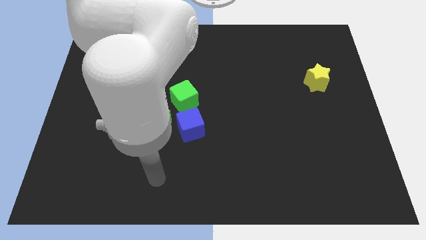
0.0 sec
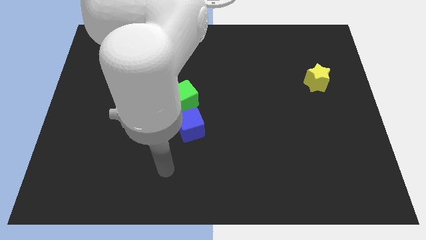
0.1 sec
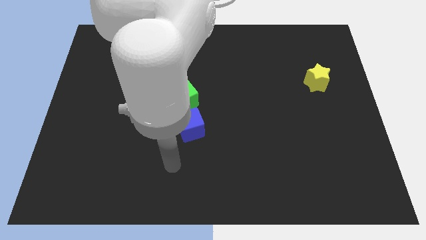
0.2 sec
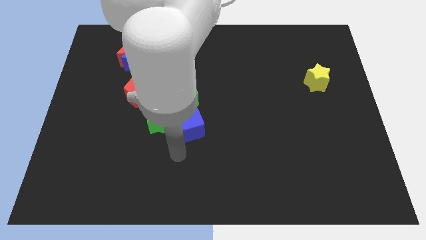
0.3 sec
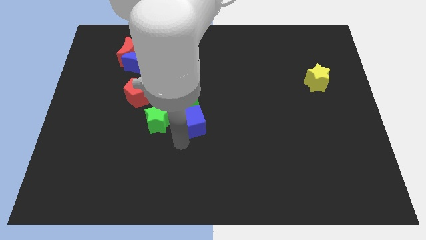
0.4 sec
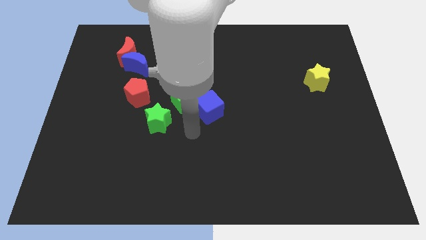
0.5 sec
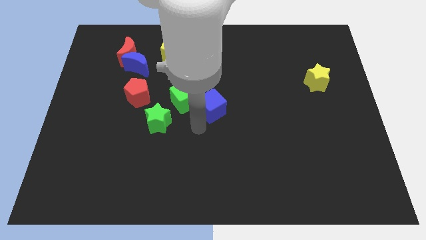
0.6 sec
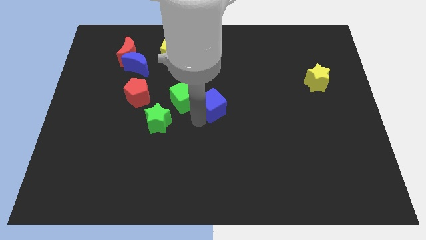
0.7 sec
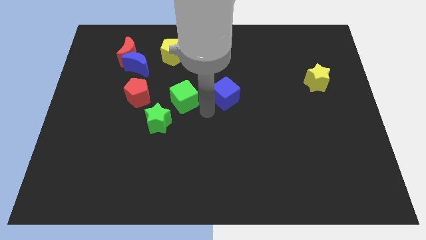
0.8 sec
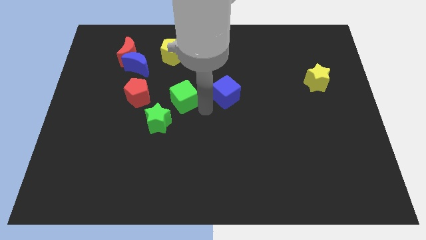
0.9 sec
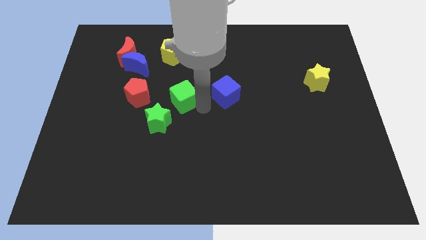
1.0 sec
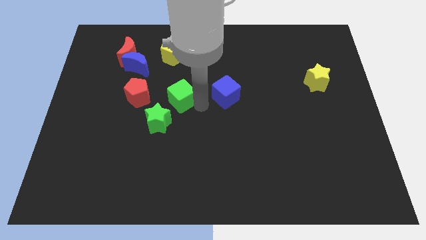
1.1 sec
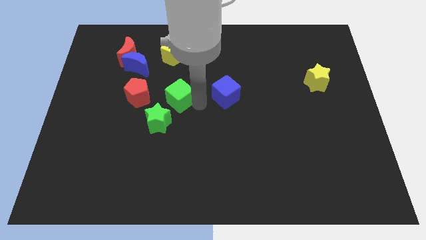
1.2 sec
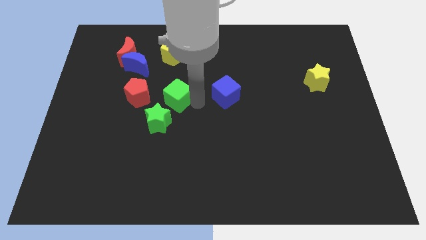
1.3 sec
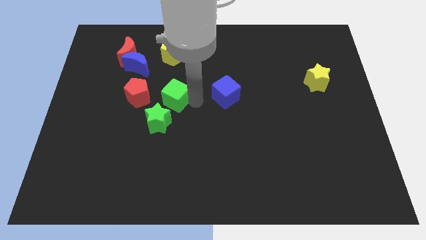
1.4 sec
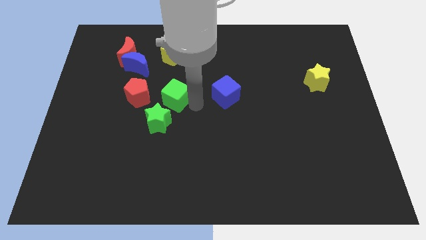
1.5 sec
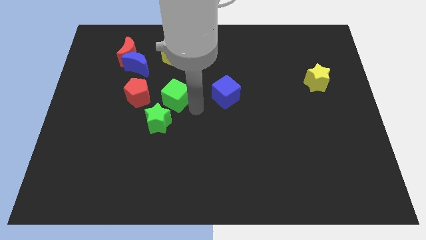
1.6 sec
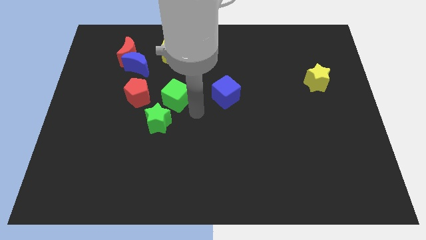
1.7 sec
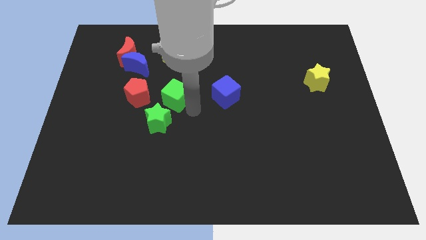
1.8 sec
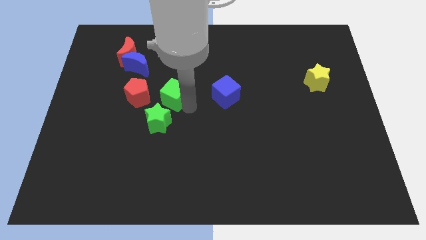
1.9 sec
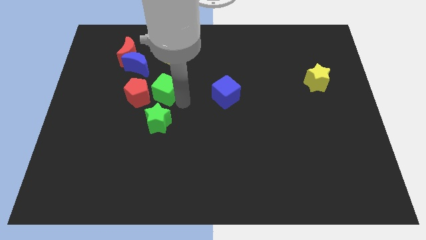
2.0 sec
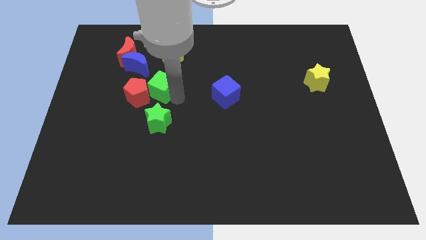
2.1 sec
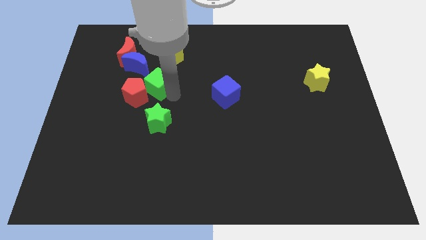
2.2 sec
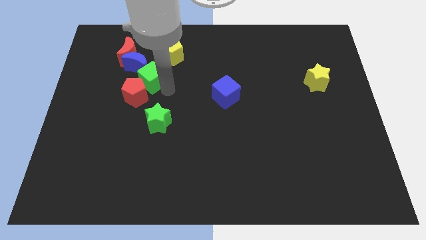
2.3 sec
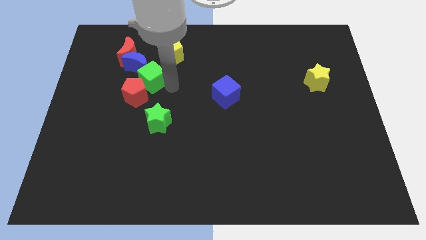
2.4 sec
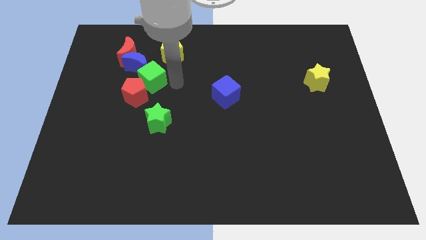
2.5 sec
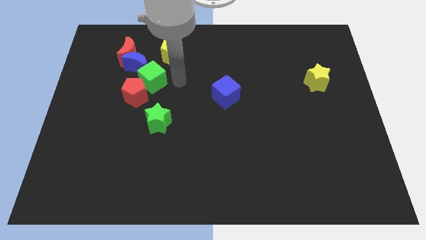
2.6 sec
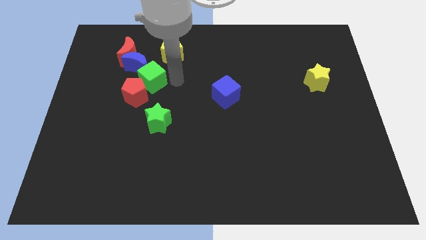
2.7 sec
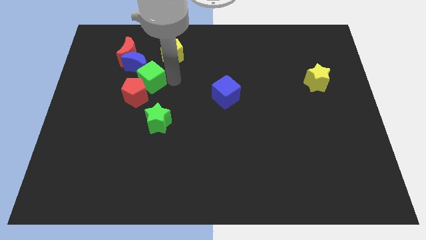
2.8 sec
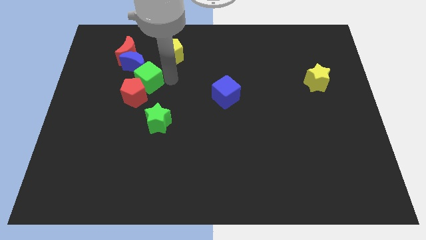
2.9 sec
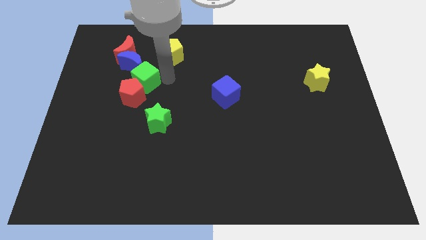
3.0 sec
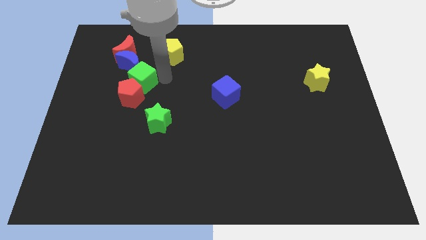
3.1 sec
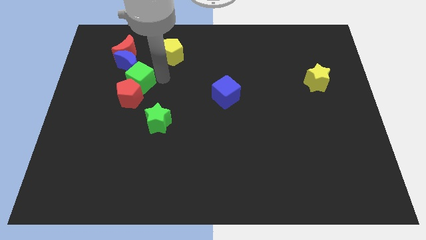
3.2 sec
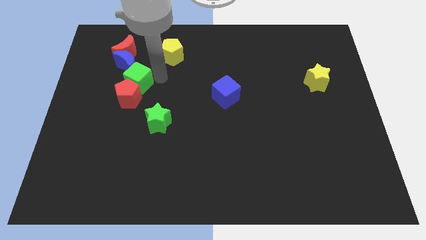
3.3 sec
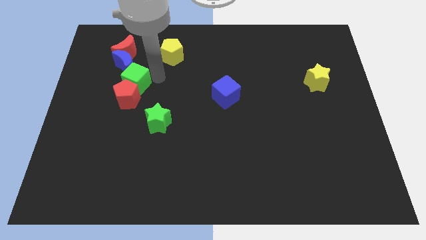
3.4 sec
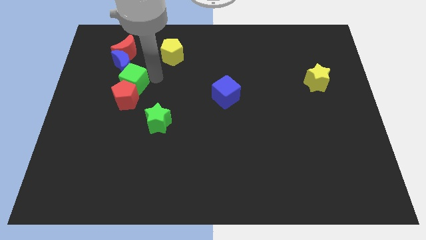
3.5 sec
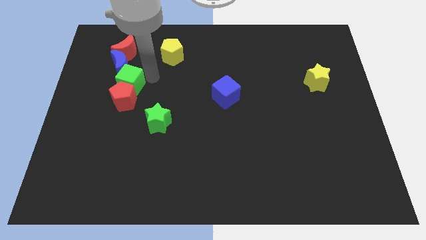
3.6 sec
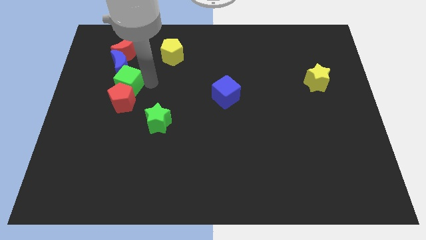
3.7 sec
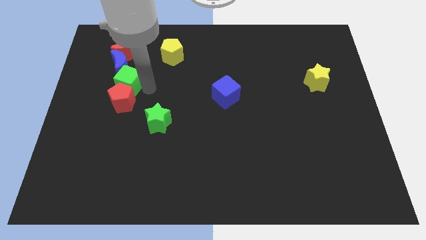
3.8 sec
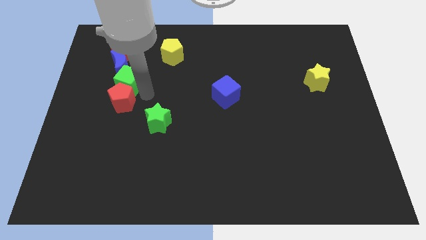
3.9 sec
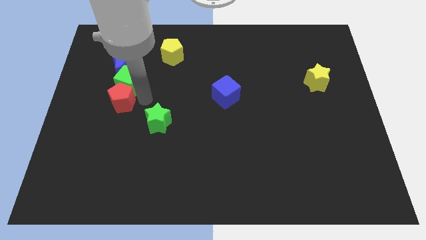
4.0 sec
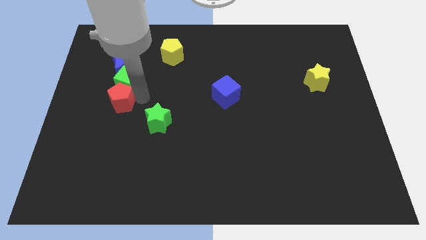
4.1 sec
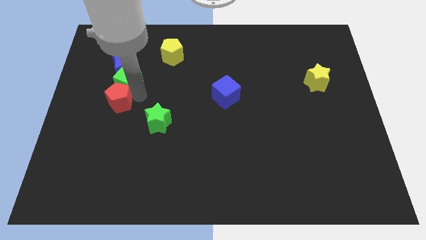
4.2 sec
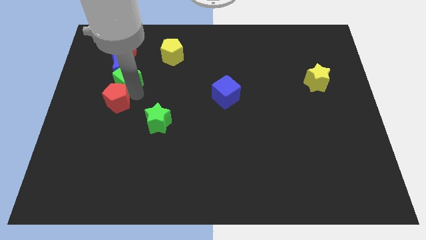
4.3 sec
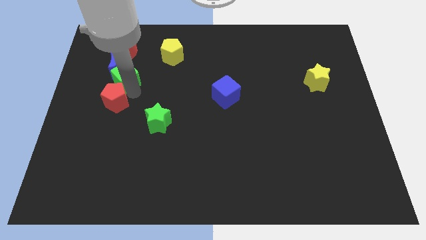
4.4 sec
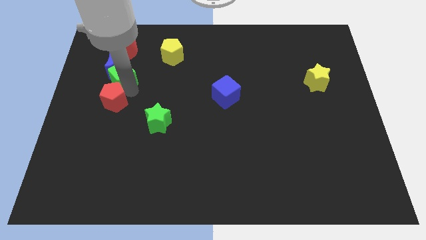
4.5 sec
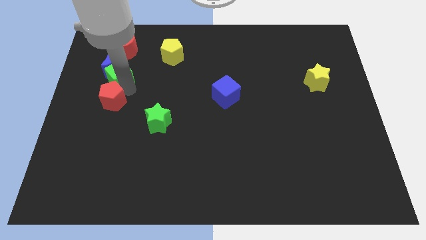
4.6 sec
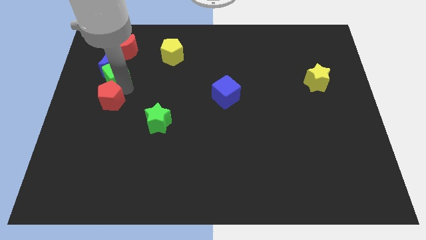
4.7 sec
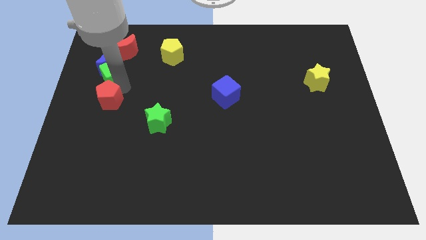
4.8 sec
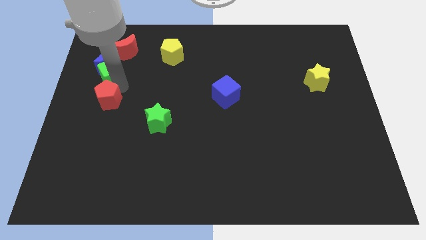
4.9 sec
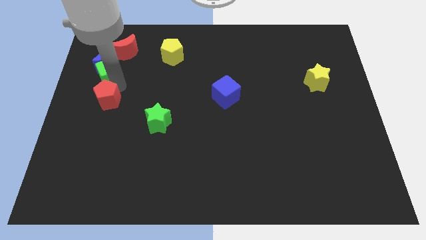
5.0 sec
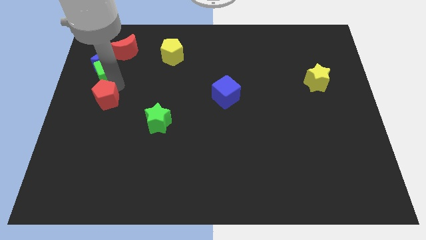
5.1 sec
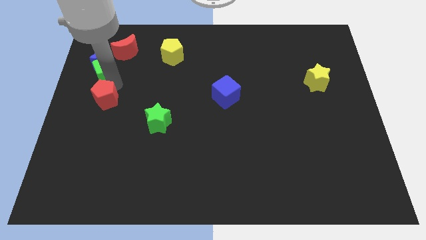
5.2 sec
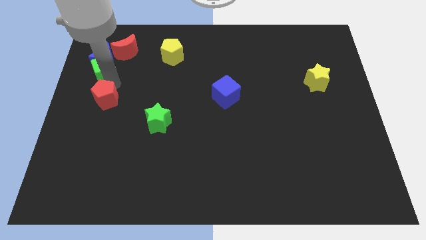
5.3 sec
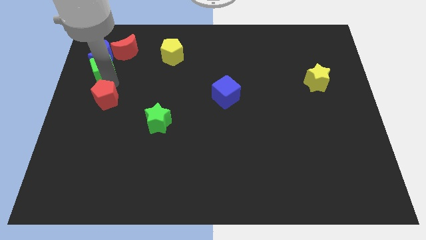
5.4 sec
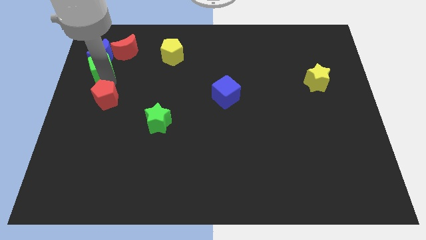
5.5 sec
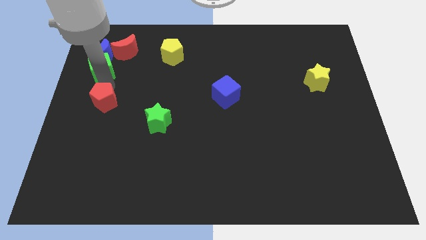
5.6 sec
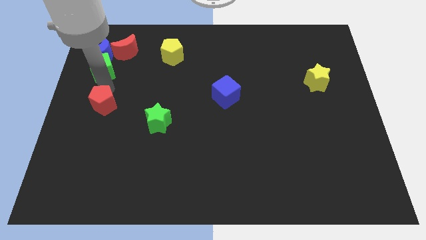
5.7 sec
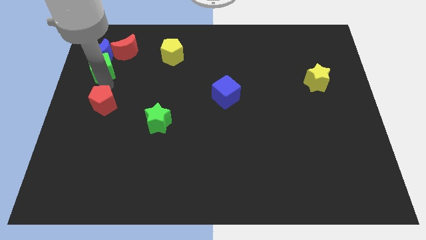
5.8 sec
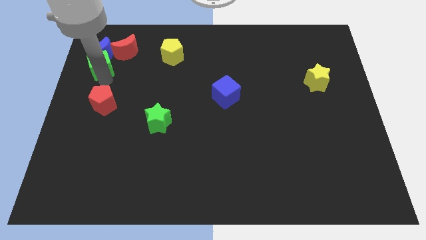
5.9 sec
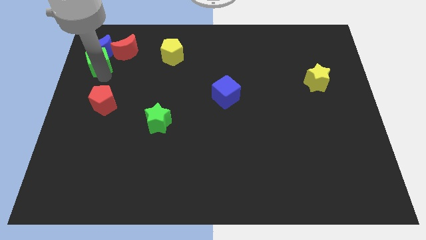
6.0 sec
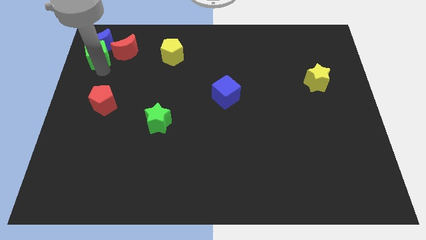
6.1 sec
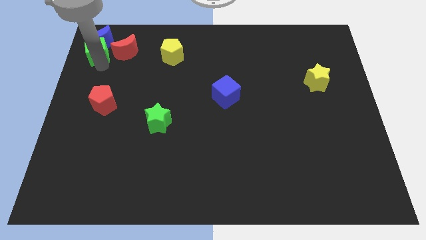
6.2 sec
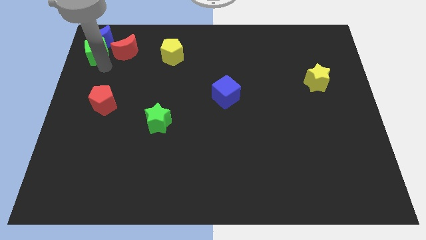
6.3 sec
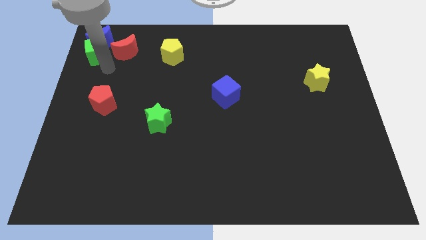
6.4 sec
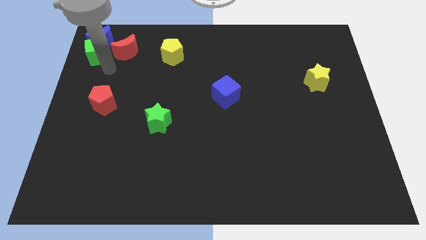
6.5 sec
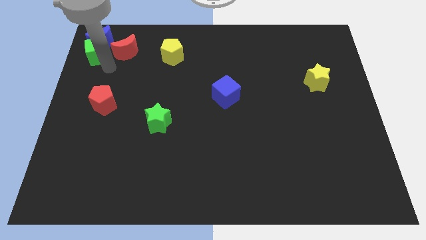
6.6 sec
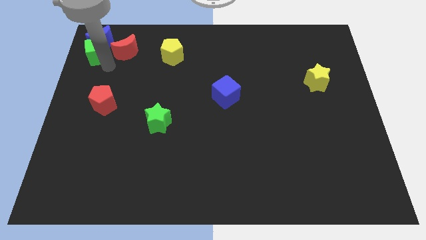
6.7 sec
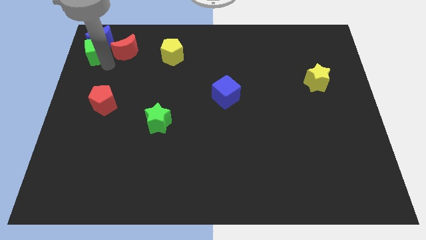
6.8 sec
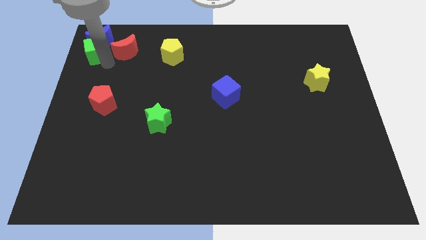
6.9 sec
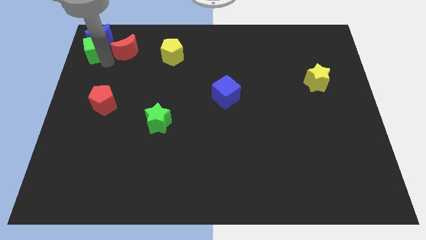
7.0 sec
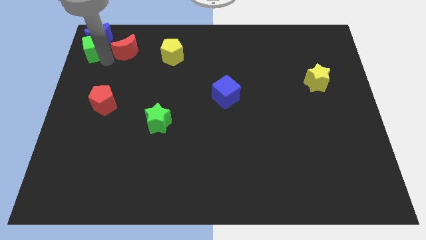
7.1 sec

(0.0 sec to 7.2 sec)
move the green cube to the upper left corner

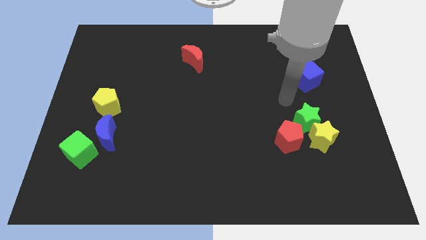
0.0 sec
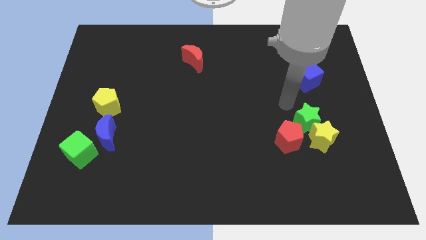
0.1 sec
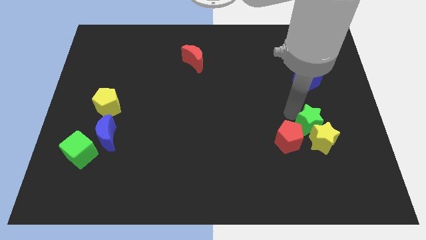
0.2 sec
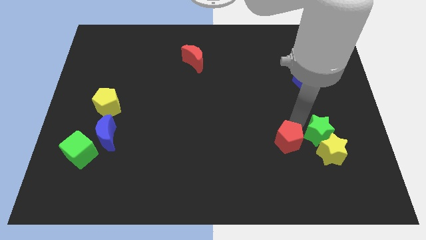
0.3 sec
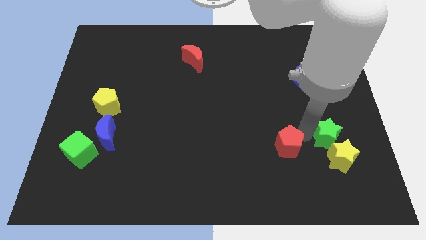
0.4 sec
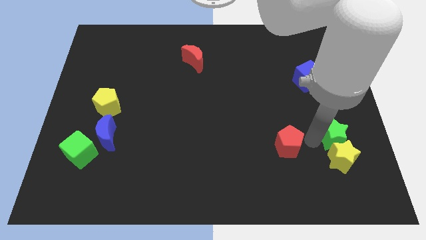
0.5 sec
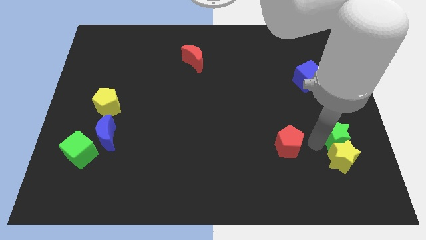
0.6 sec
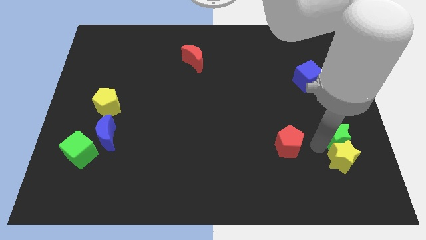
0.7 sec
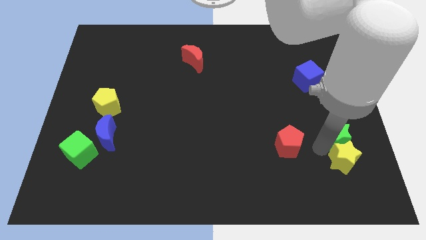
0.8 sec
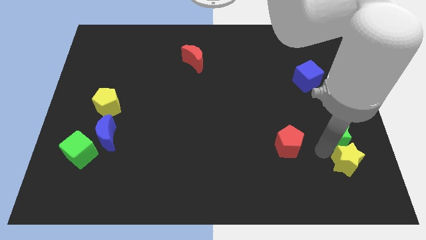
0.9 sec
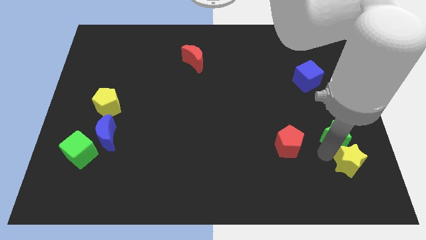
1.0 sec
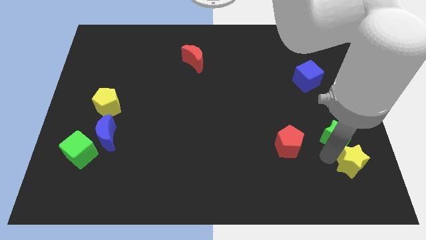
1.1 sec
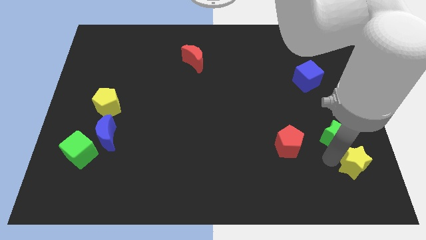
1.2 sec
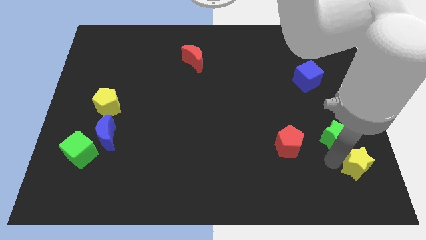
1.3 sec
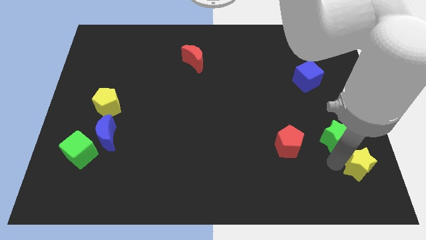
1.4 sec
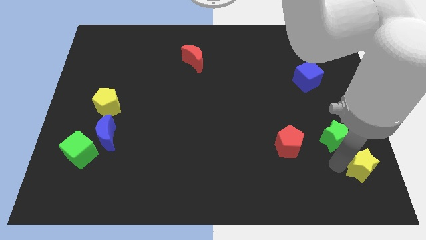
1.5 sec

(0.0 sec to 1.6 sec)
put the yellow star to the lower right corner
